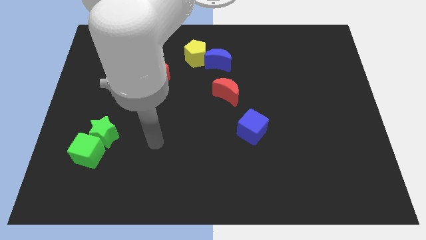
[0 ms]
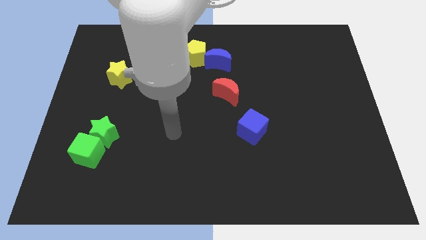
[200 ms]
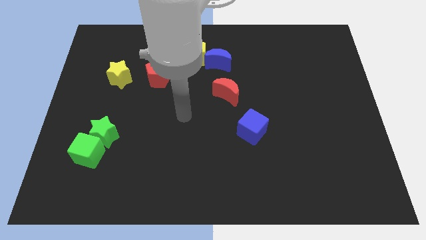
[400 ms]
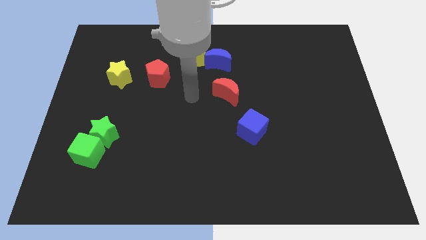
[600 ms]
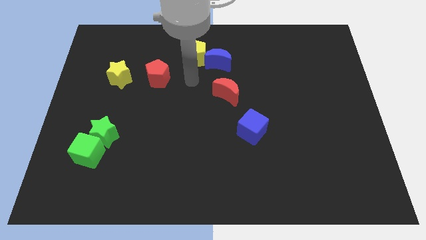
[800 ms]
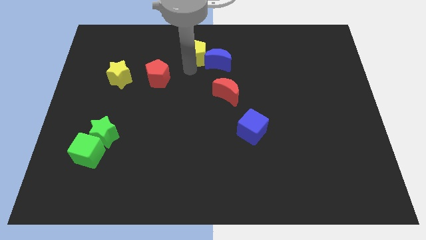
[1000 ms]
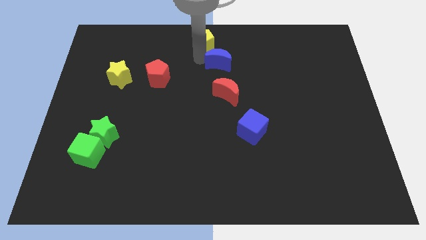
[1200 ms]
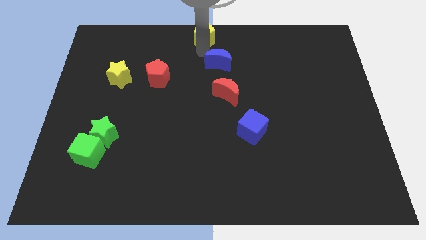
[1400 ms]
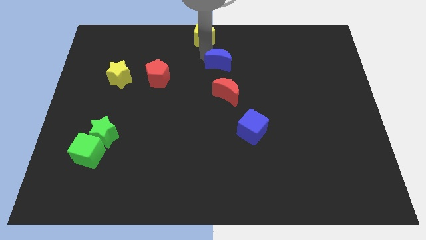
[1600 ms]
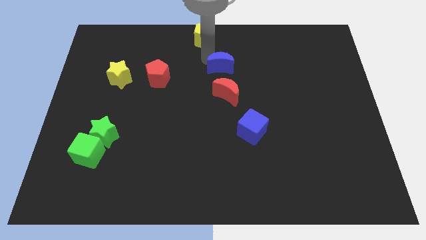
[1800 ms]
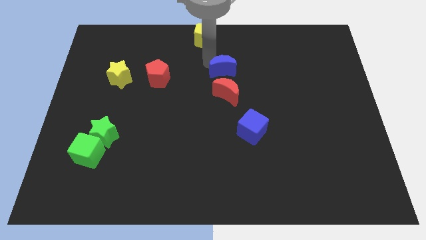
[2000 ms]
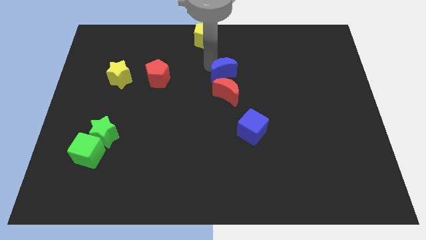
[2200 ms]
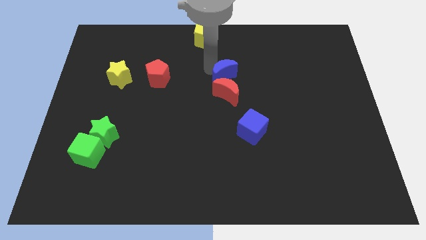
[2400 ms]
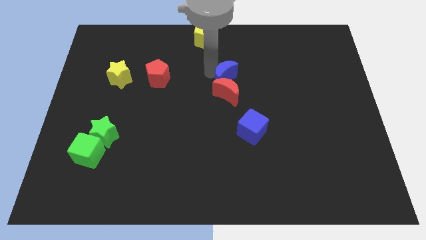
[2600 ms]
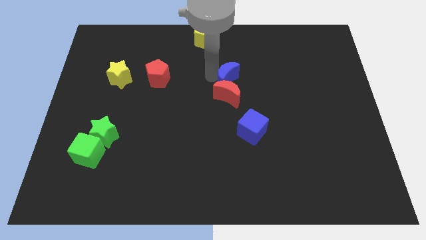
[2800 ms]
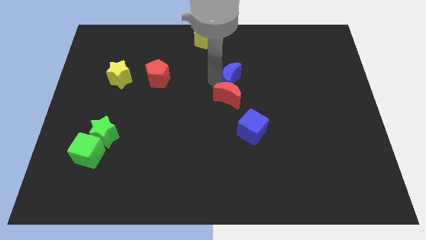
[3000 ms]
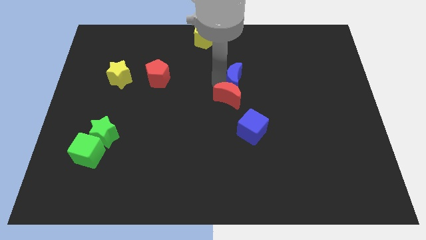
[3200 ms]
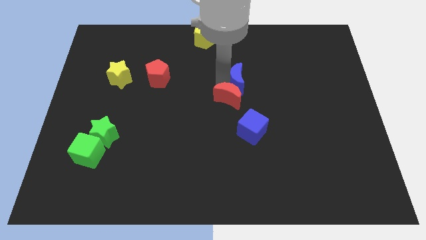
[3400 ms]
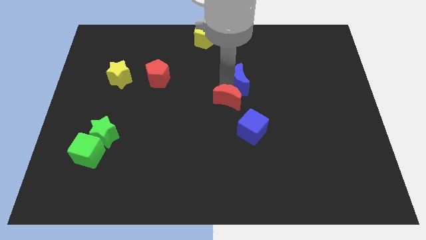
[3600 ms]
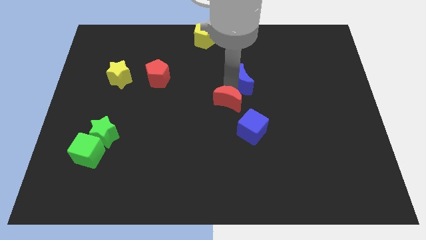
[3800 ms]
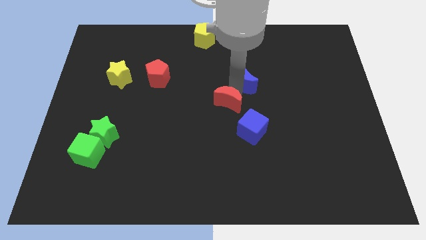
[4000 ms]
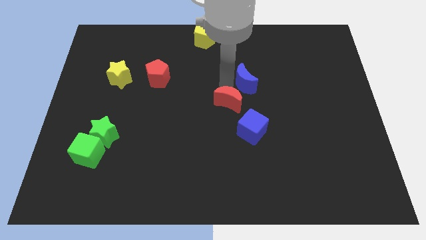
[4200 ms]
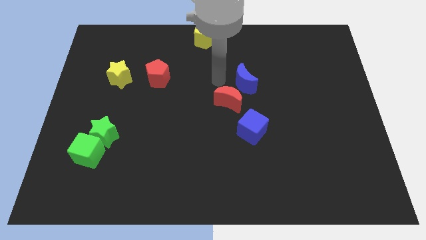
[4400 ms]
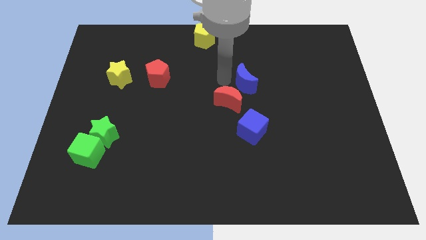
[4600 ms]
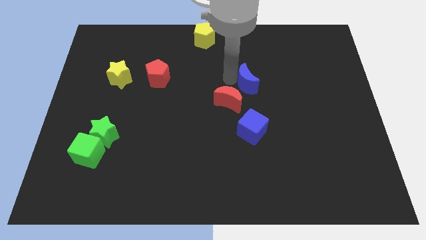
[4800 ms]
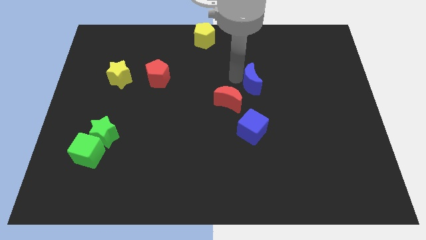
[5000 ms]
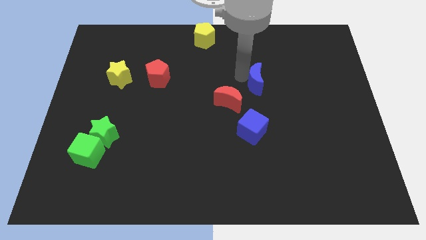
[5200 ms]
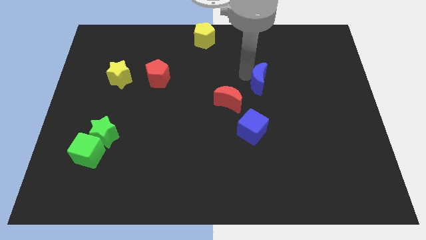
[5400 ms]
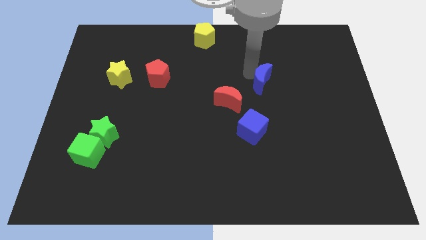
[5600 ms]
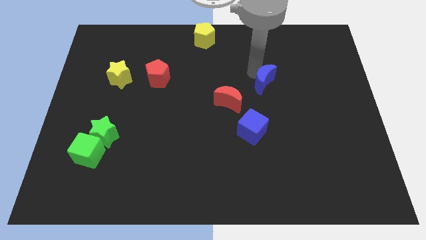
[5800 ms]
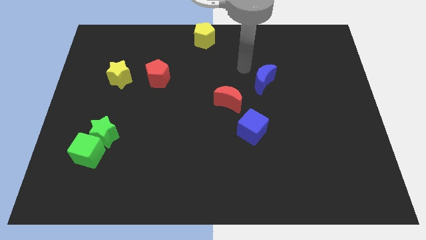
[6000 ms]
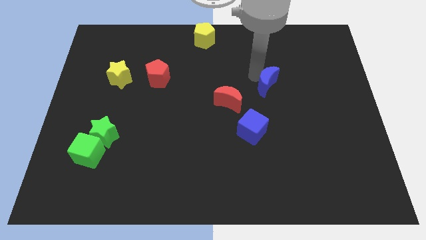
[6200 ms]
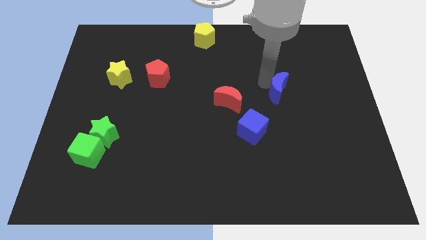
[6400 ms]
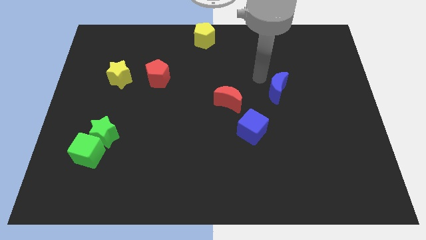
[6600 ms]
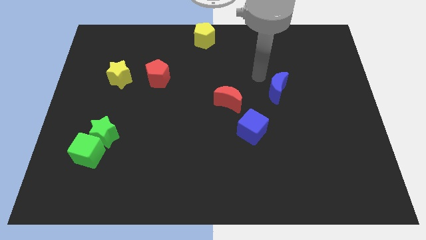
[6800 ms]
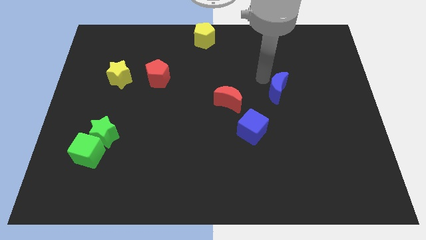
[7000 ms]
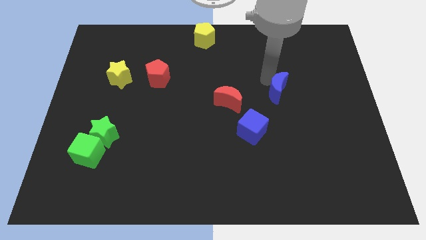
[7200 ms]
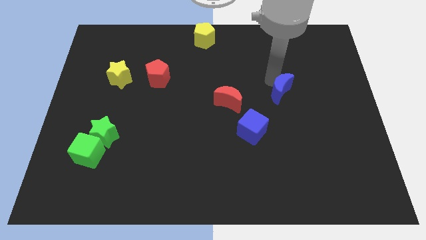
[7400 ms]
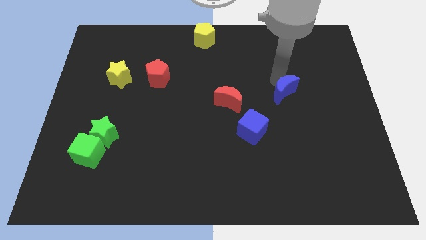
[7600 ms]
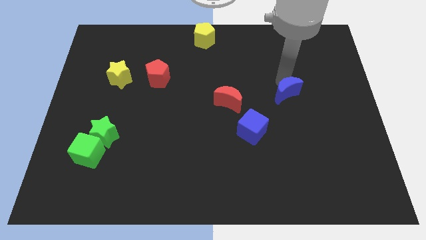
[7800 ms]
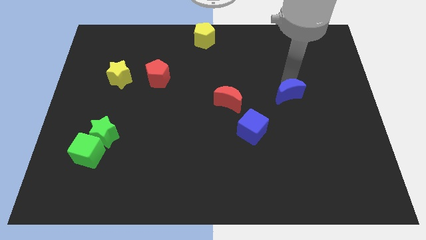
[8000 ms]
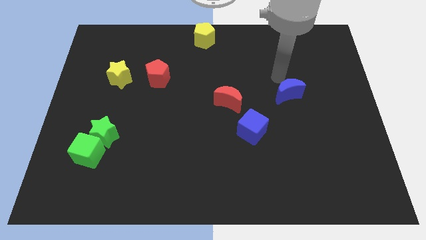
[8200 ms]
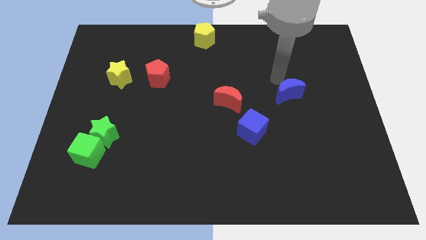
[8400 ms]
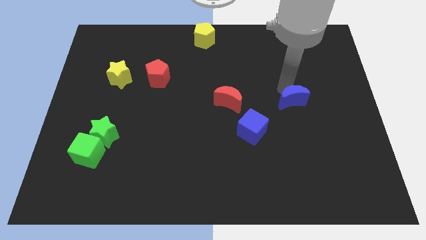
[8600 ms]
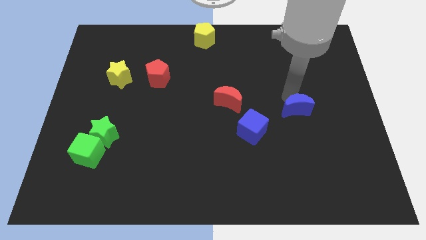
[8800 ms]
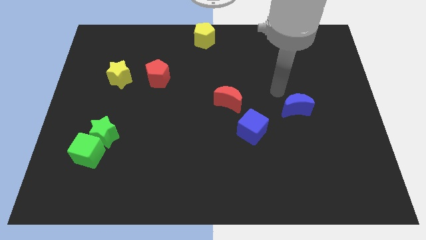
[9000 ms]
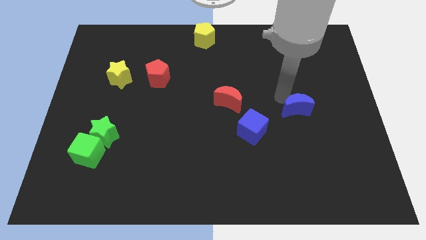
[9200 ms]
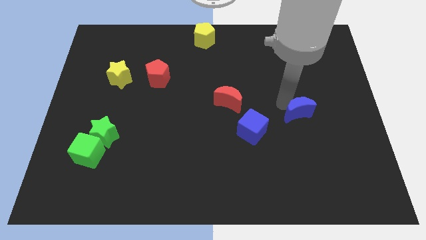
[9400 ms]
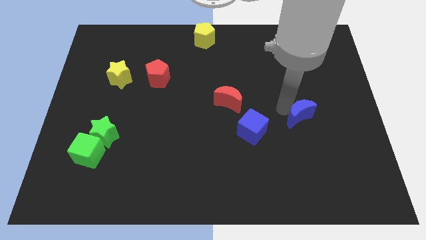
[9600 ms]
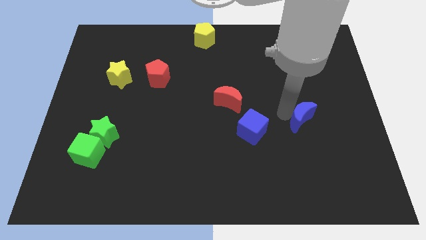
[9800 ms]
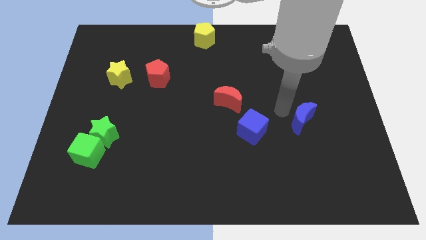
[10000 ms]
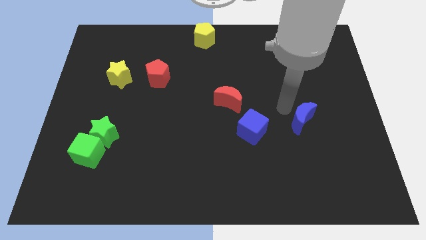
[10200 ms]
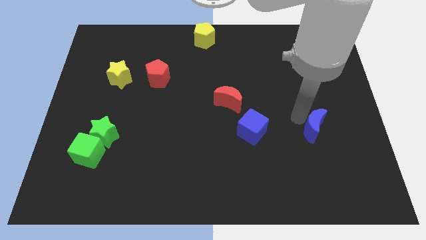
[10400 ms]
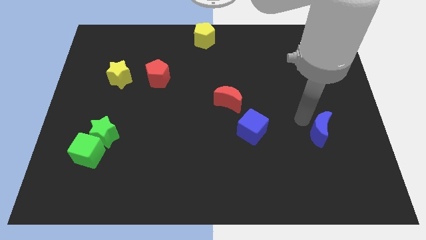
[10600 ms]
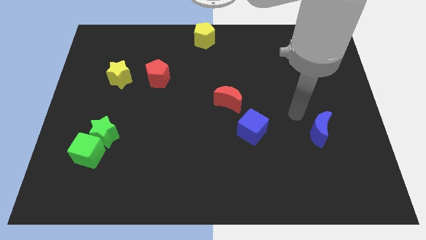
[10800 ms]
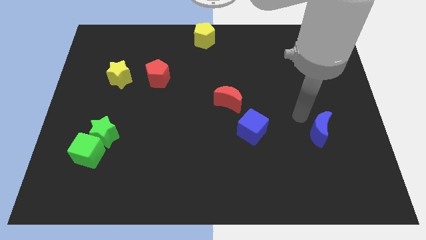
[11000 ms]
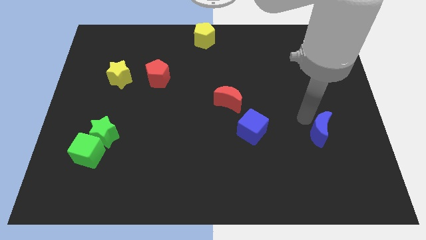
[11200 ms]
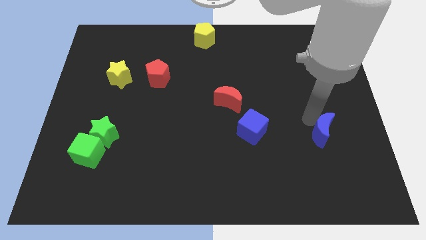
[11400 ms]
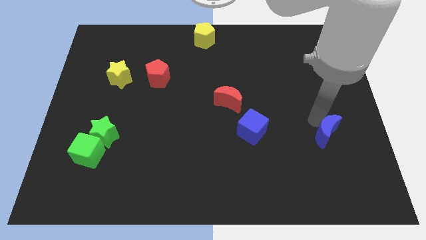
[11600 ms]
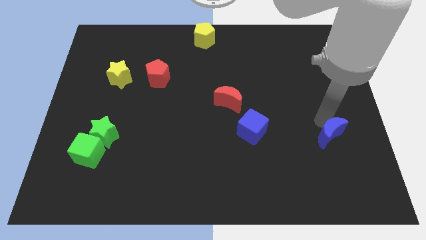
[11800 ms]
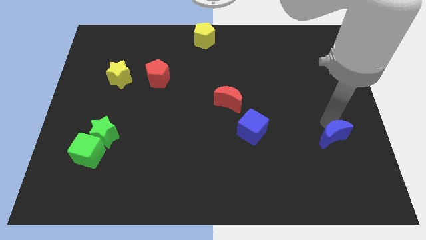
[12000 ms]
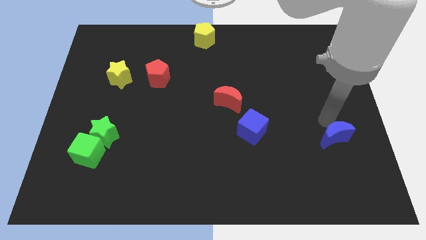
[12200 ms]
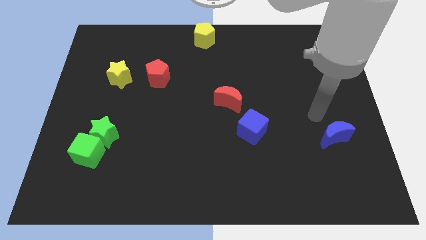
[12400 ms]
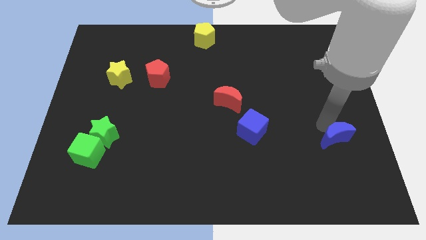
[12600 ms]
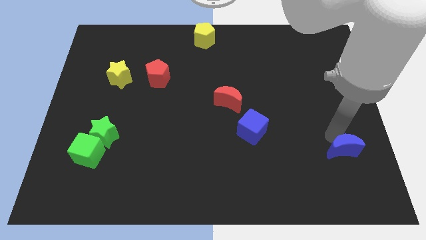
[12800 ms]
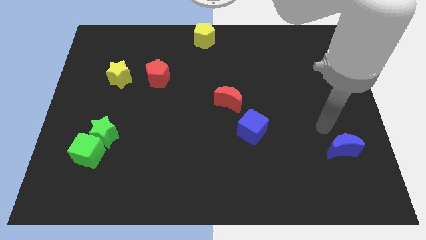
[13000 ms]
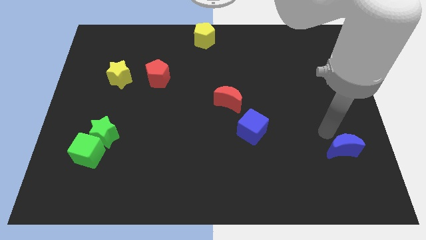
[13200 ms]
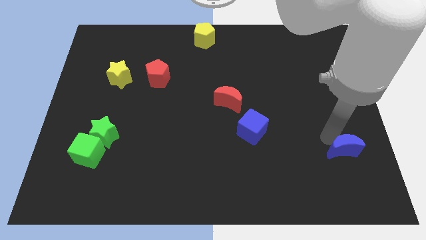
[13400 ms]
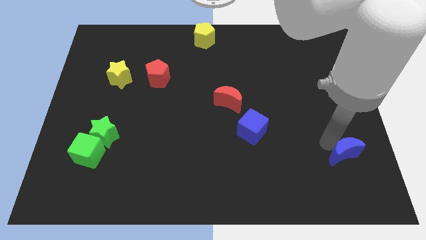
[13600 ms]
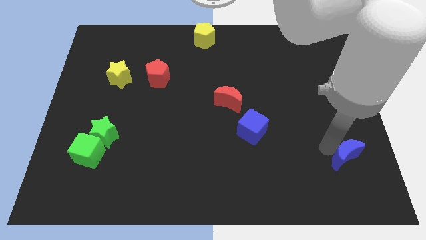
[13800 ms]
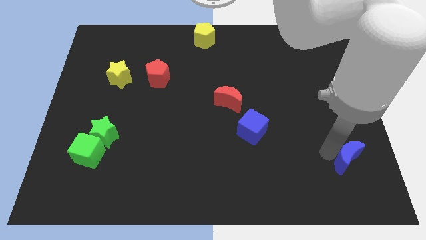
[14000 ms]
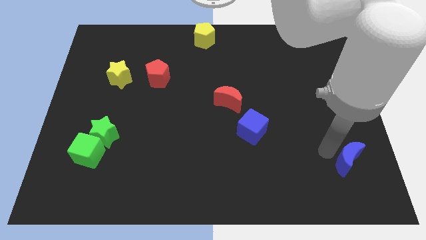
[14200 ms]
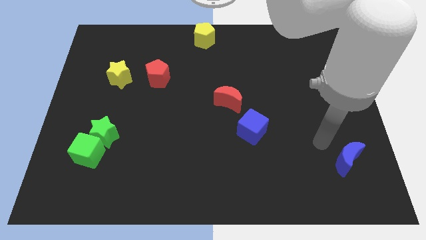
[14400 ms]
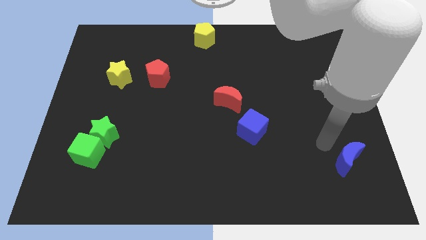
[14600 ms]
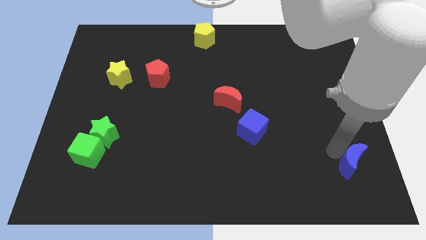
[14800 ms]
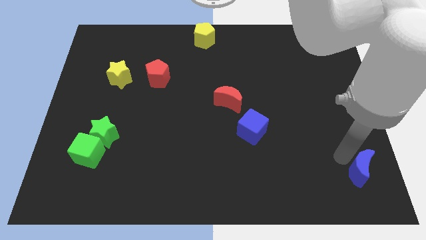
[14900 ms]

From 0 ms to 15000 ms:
put the blue moon to the bottom right of the board
